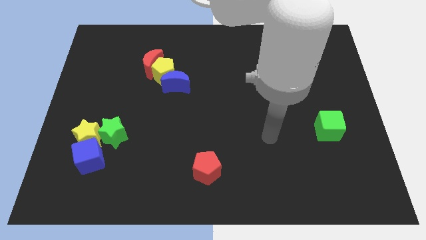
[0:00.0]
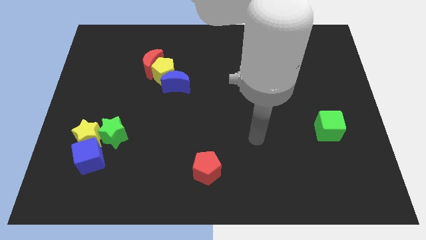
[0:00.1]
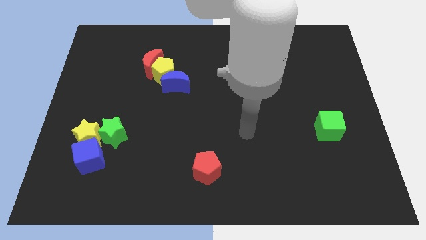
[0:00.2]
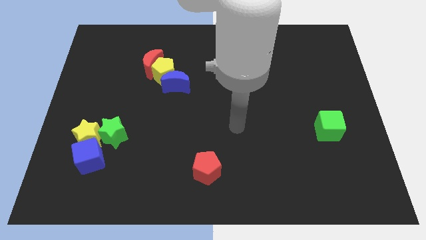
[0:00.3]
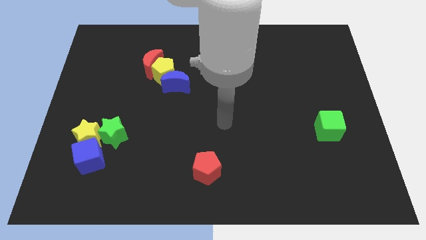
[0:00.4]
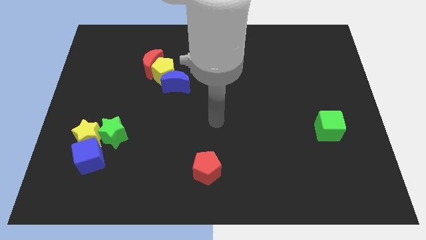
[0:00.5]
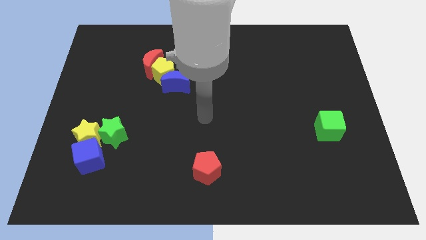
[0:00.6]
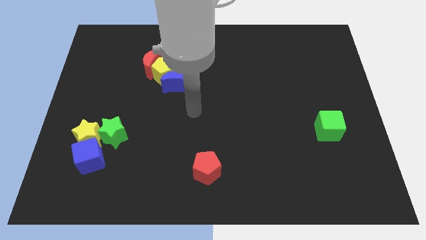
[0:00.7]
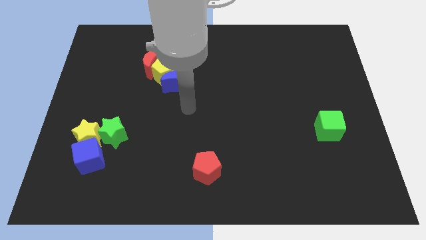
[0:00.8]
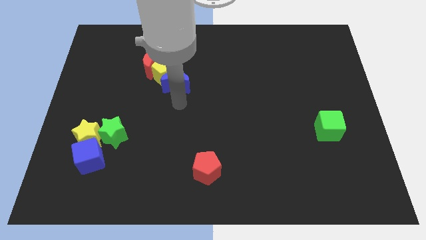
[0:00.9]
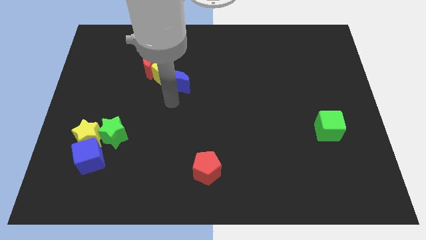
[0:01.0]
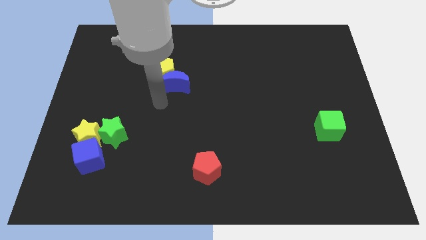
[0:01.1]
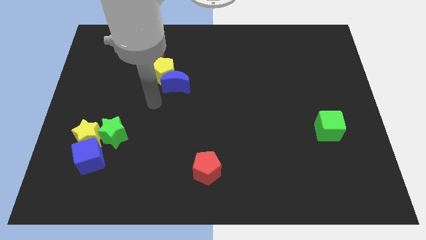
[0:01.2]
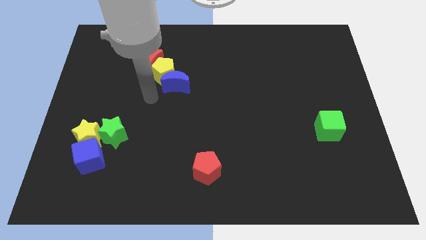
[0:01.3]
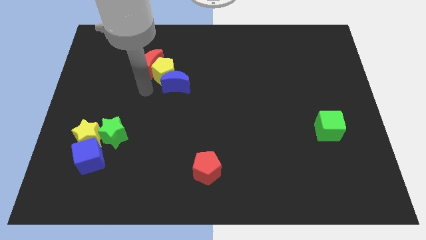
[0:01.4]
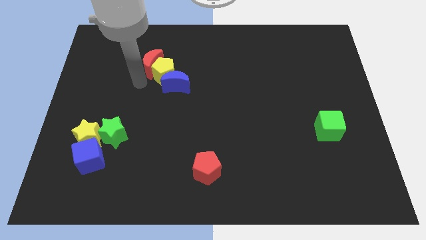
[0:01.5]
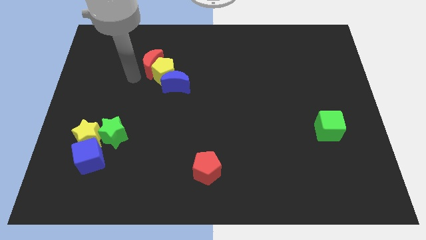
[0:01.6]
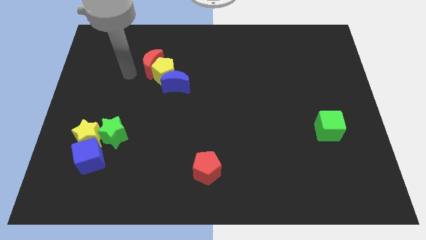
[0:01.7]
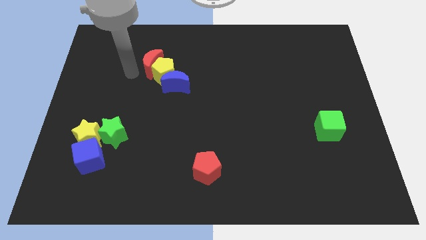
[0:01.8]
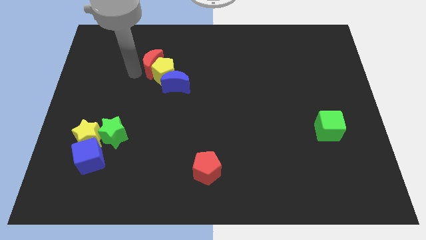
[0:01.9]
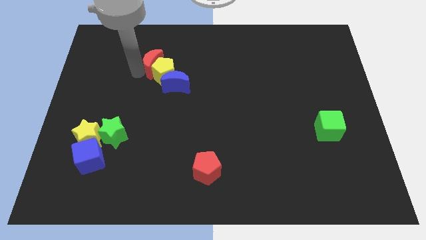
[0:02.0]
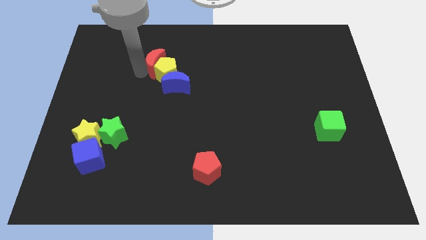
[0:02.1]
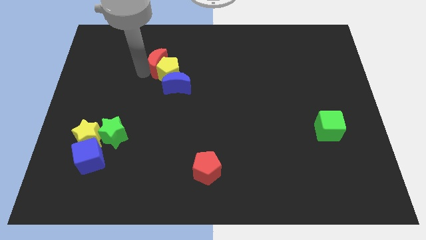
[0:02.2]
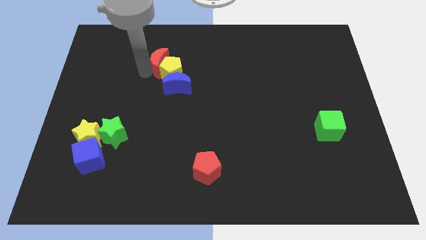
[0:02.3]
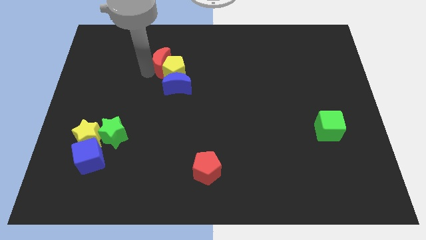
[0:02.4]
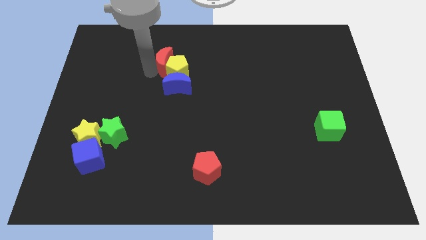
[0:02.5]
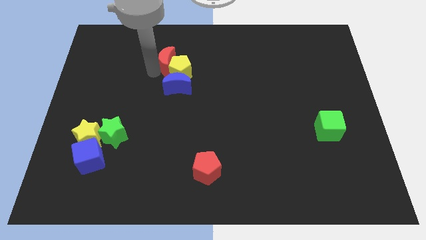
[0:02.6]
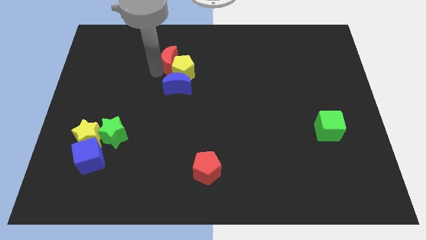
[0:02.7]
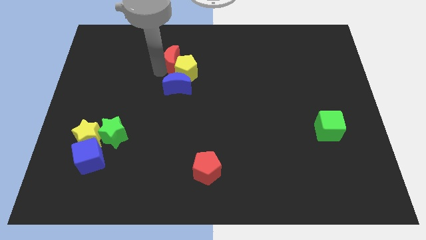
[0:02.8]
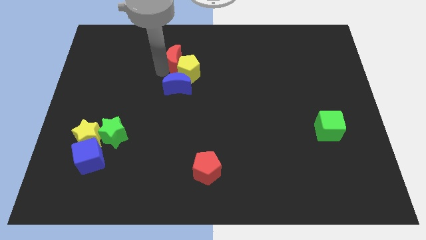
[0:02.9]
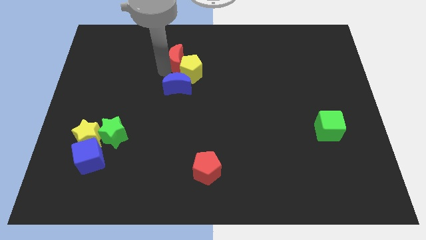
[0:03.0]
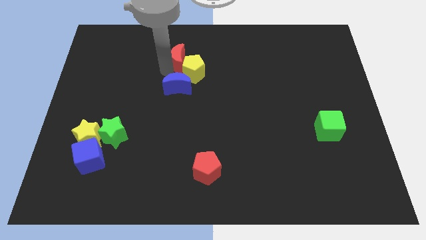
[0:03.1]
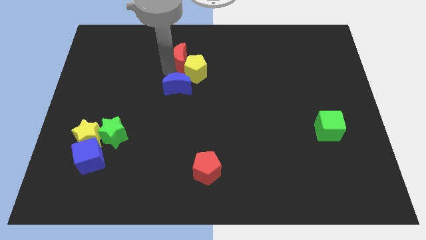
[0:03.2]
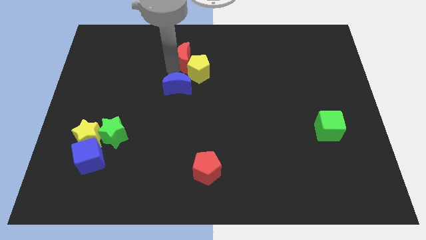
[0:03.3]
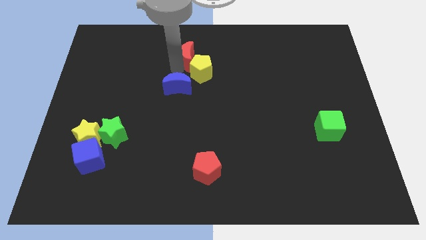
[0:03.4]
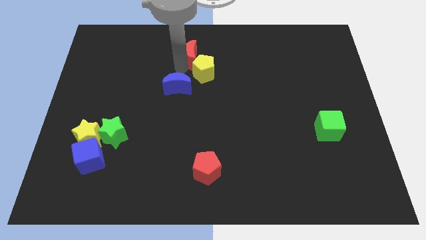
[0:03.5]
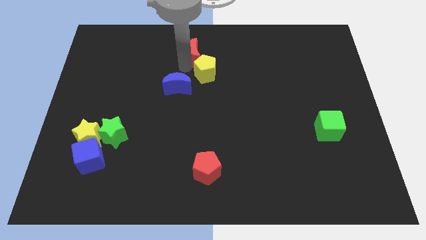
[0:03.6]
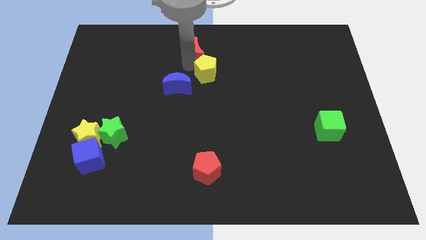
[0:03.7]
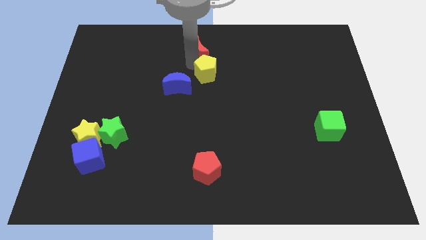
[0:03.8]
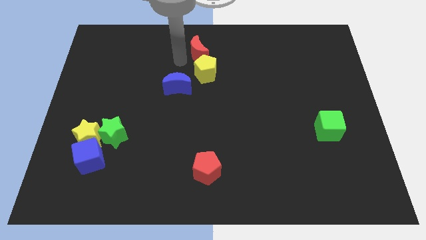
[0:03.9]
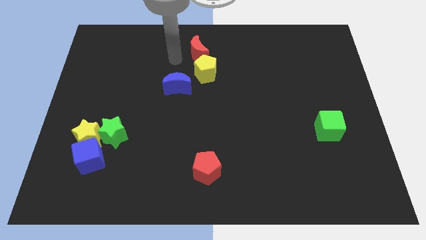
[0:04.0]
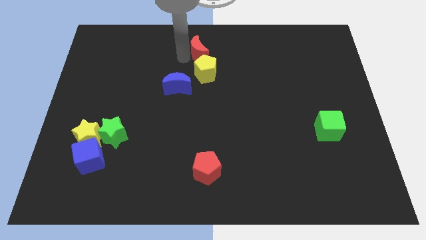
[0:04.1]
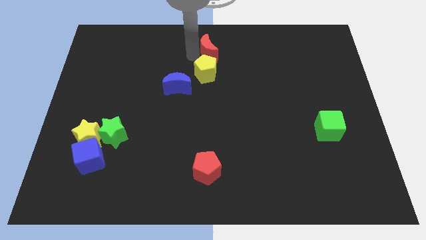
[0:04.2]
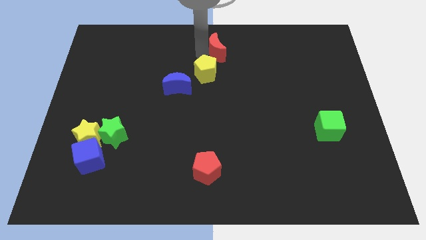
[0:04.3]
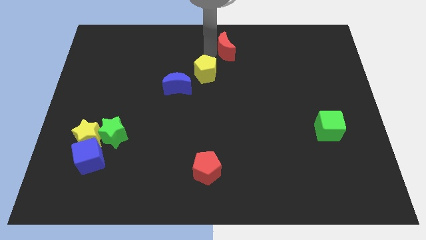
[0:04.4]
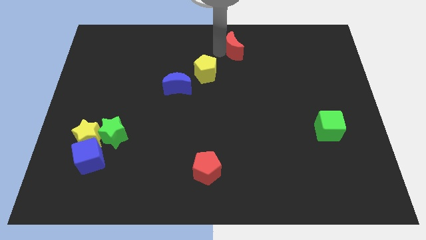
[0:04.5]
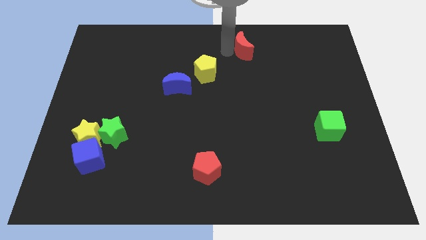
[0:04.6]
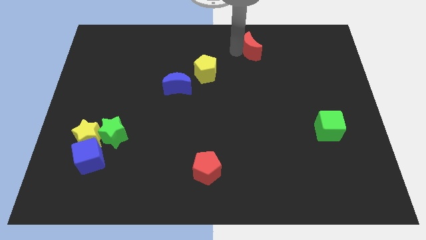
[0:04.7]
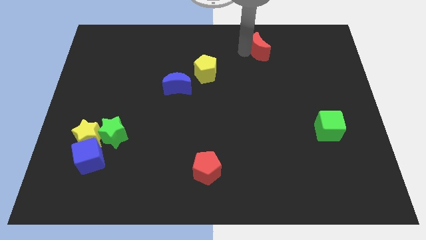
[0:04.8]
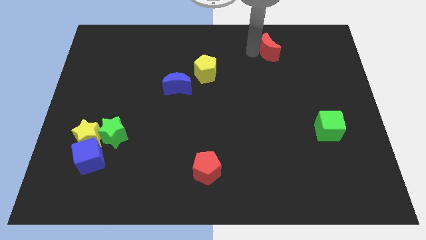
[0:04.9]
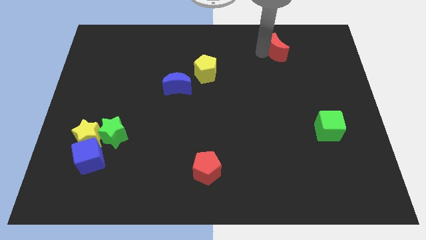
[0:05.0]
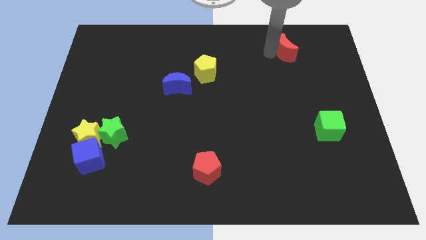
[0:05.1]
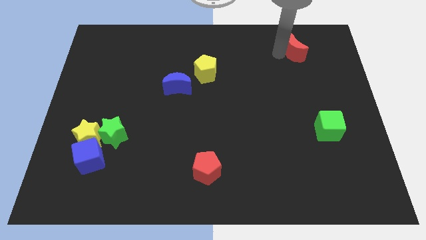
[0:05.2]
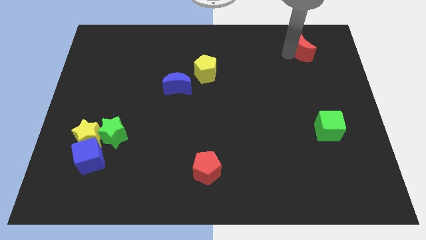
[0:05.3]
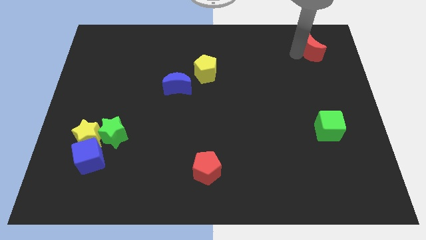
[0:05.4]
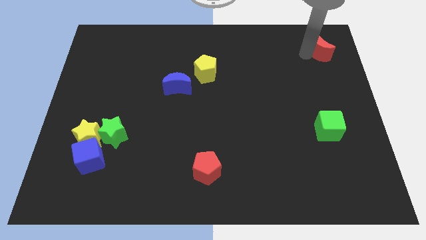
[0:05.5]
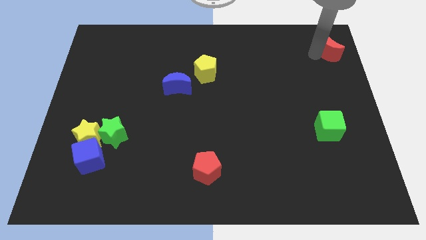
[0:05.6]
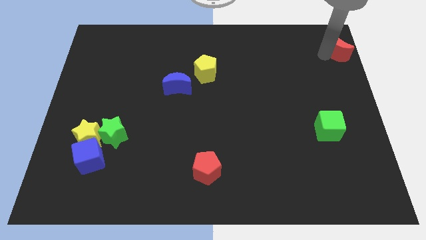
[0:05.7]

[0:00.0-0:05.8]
put the red moon to the top right corner

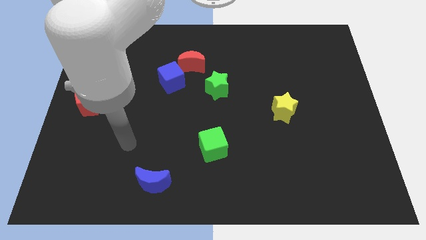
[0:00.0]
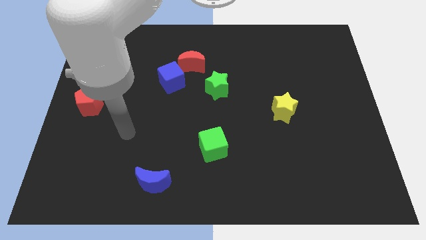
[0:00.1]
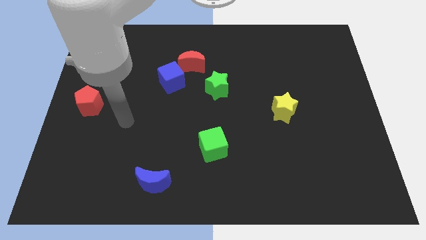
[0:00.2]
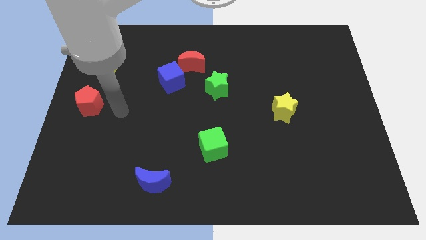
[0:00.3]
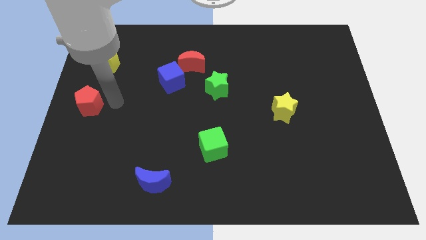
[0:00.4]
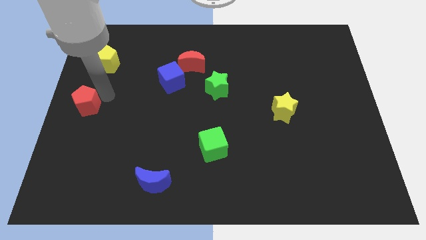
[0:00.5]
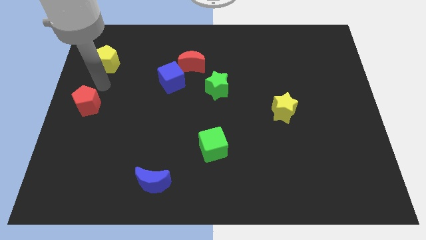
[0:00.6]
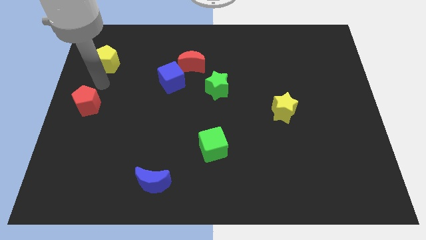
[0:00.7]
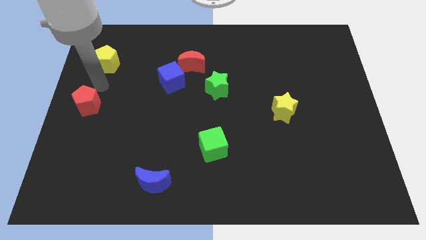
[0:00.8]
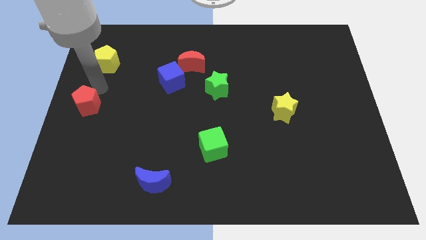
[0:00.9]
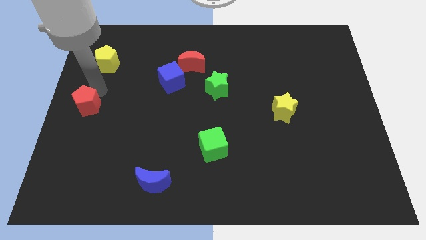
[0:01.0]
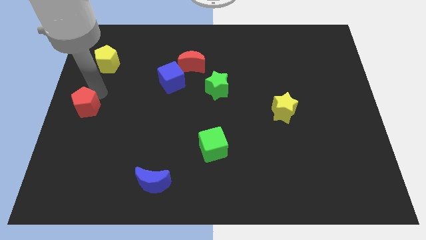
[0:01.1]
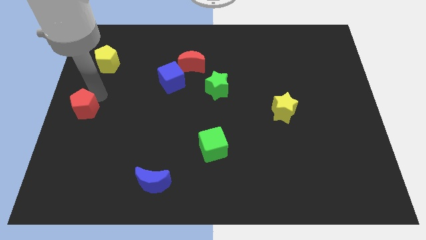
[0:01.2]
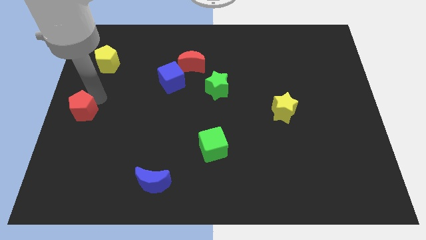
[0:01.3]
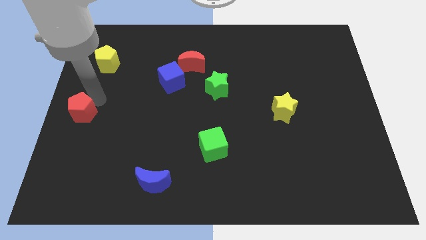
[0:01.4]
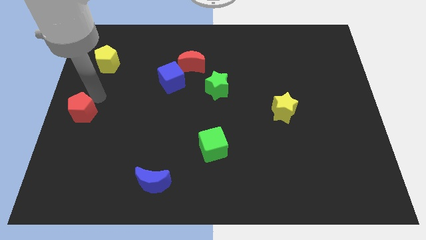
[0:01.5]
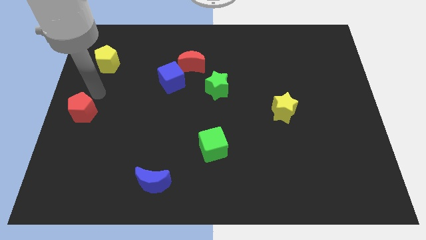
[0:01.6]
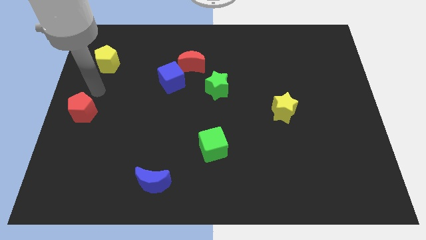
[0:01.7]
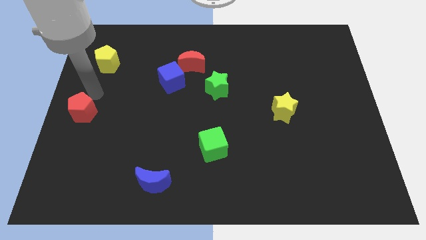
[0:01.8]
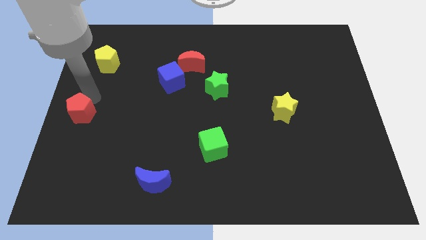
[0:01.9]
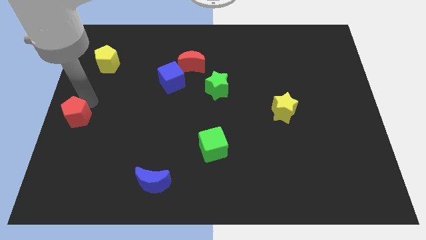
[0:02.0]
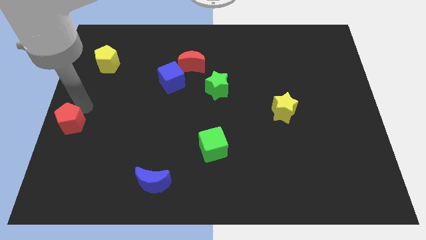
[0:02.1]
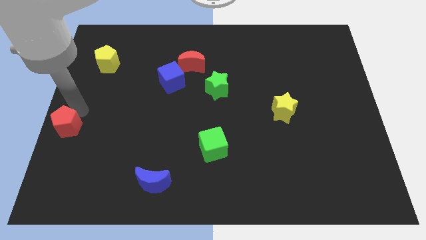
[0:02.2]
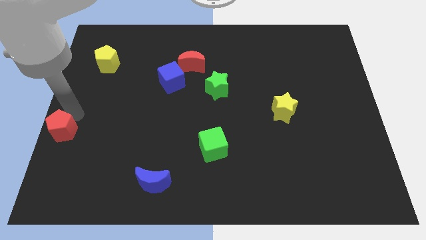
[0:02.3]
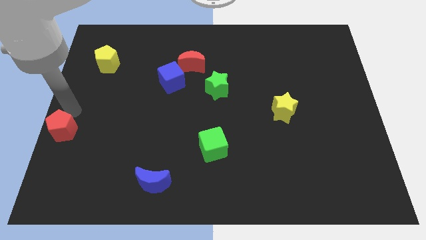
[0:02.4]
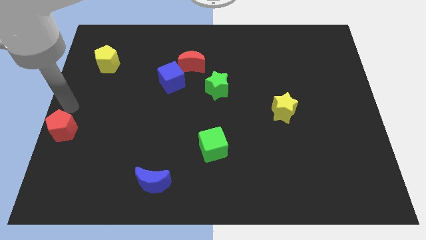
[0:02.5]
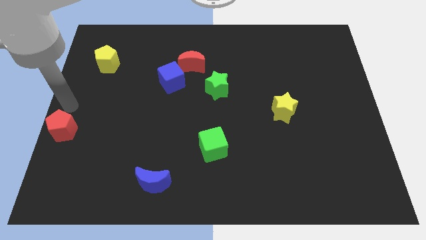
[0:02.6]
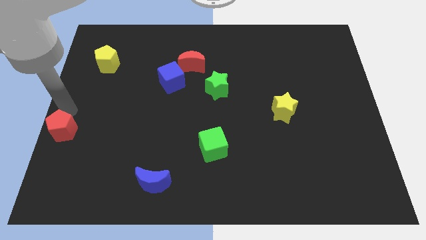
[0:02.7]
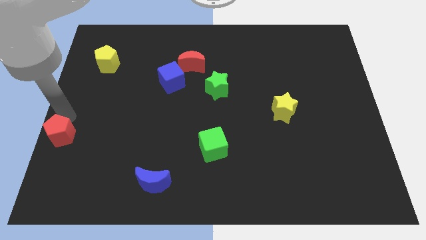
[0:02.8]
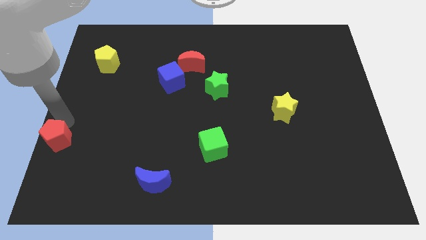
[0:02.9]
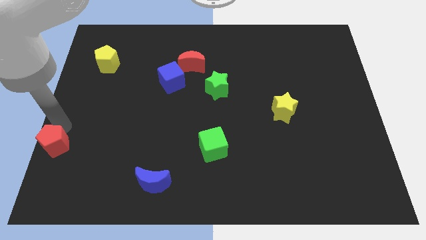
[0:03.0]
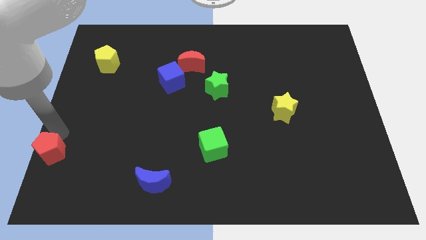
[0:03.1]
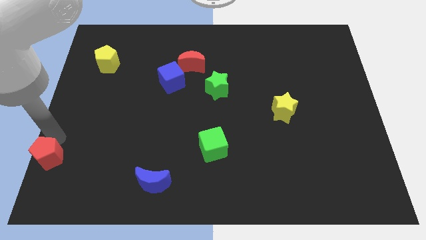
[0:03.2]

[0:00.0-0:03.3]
slide the red pentagon to the bottom left of the board
